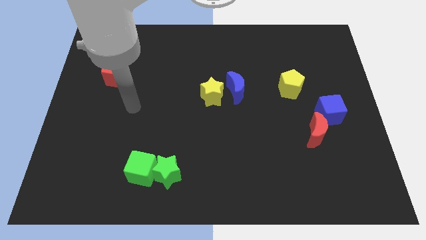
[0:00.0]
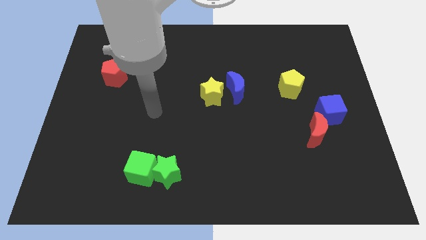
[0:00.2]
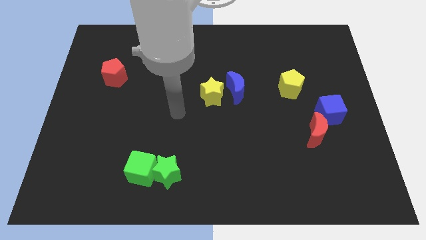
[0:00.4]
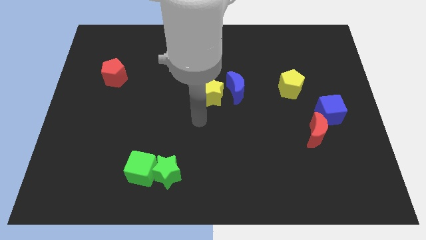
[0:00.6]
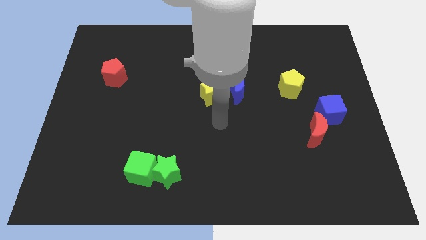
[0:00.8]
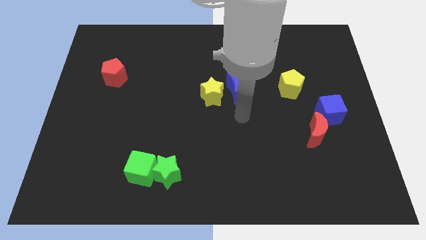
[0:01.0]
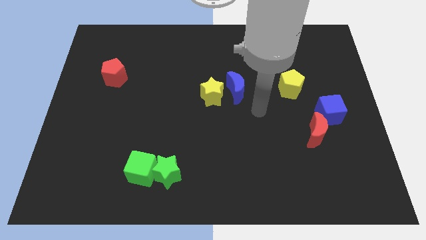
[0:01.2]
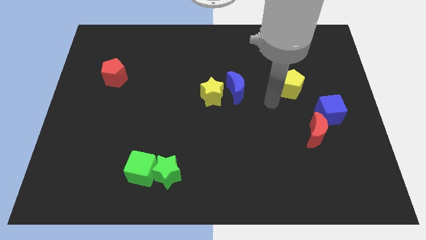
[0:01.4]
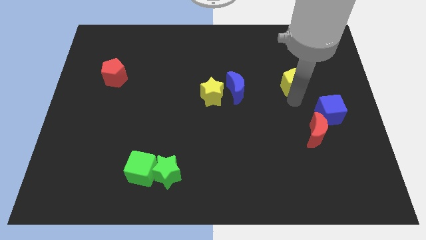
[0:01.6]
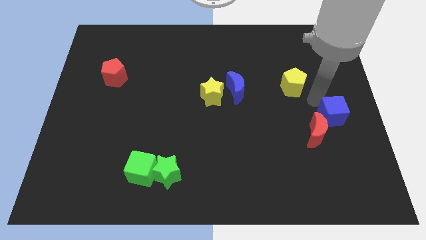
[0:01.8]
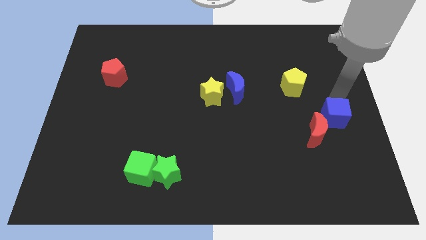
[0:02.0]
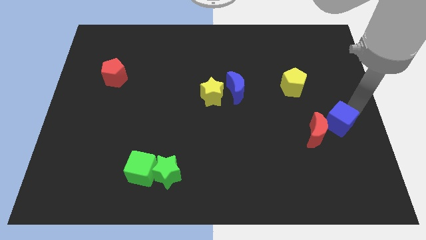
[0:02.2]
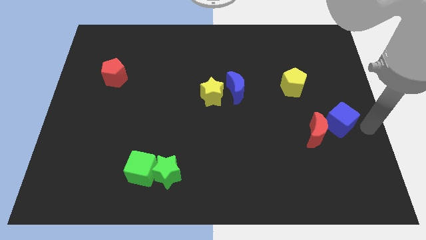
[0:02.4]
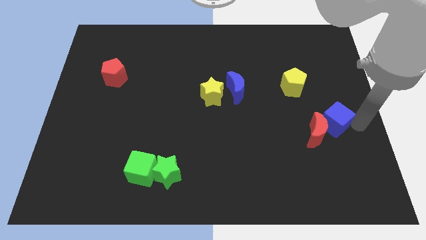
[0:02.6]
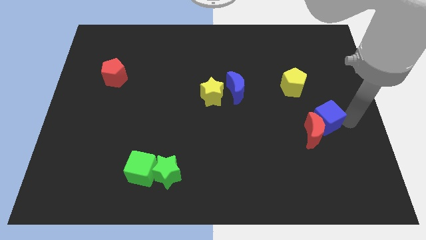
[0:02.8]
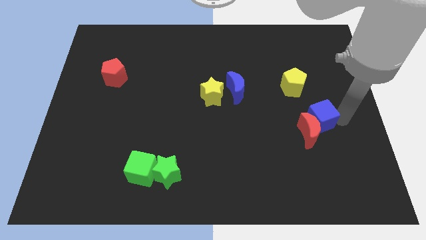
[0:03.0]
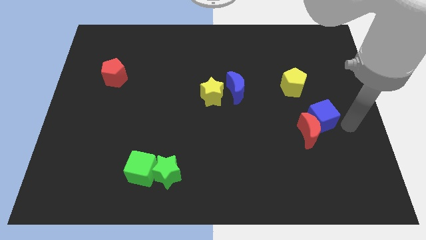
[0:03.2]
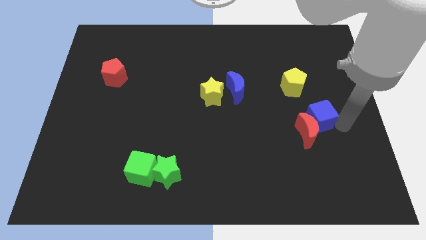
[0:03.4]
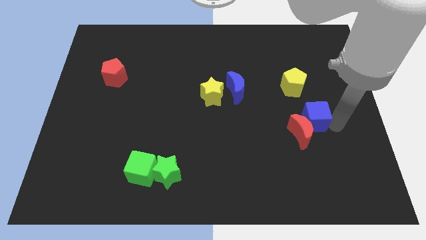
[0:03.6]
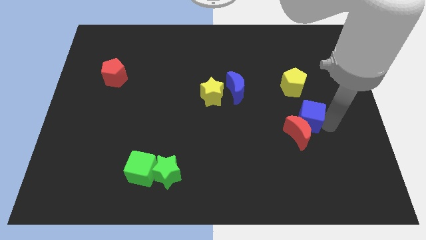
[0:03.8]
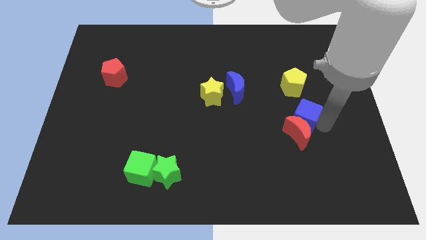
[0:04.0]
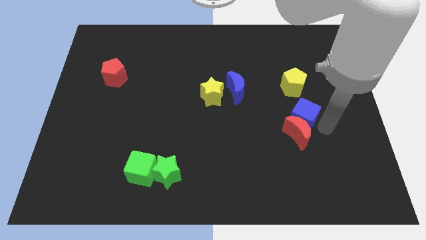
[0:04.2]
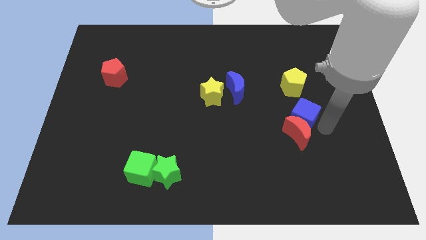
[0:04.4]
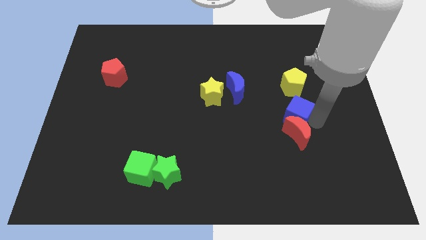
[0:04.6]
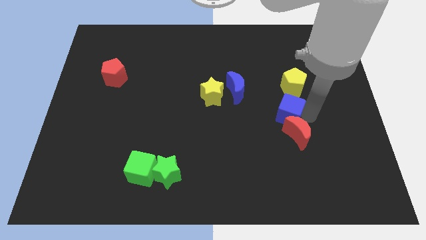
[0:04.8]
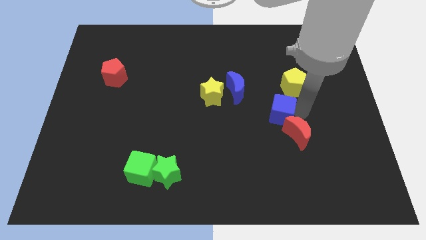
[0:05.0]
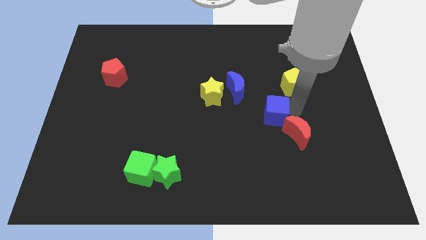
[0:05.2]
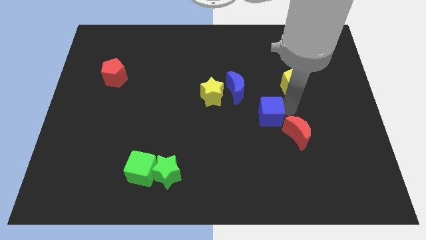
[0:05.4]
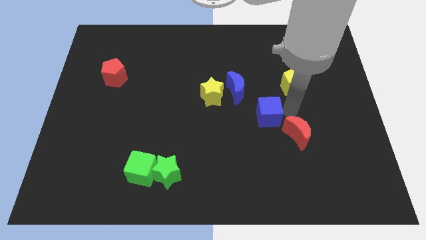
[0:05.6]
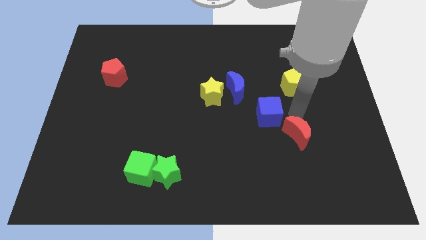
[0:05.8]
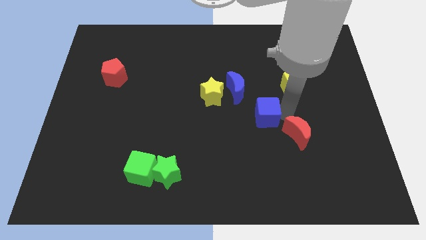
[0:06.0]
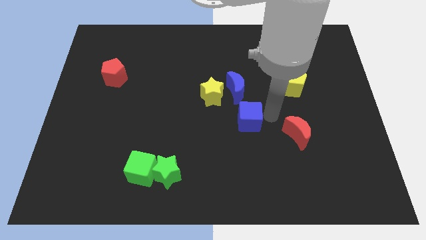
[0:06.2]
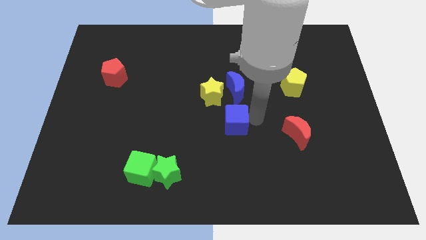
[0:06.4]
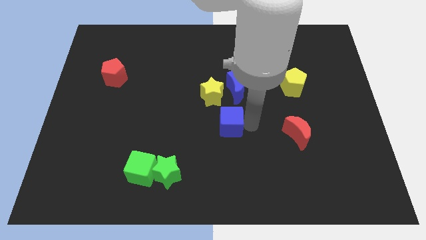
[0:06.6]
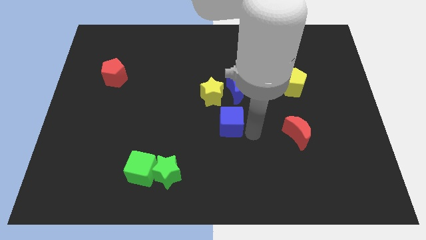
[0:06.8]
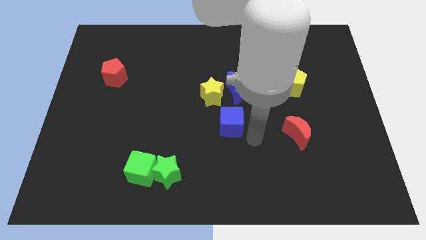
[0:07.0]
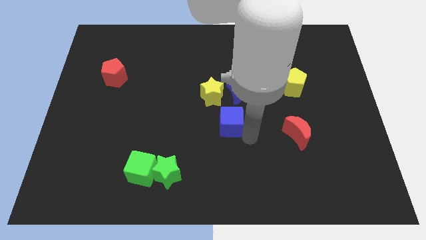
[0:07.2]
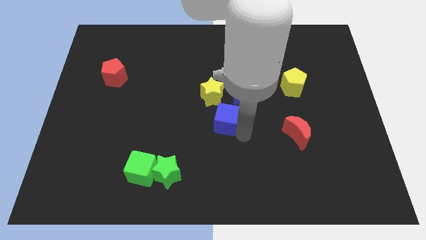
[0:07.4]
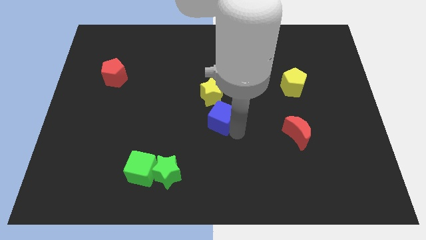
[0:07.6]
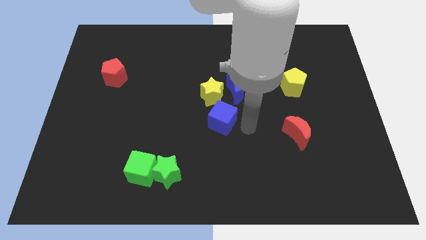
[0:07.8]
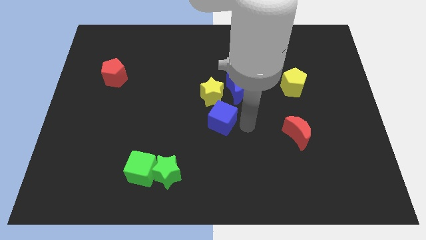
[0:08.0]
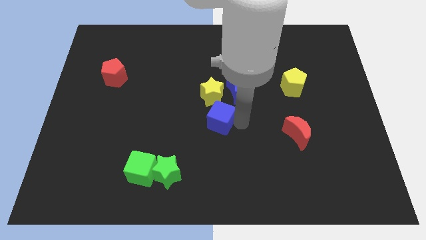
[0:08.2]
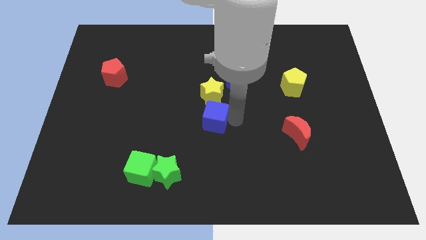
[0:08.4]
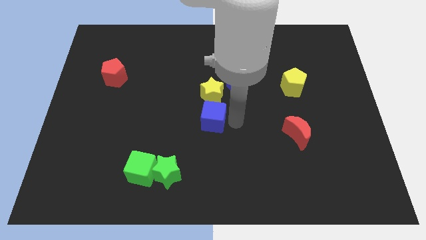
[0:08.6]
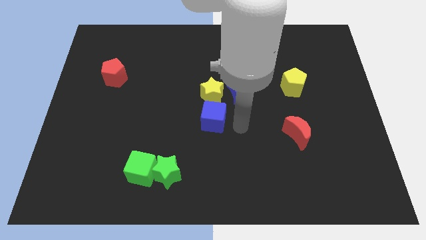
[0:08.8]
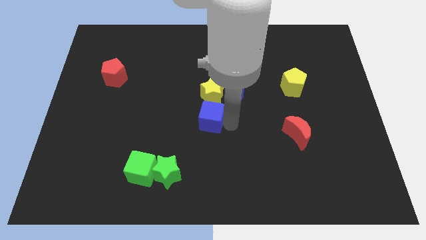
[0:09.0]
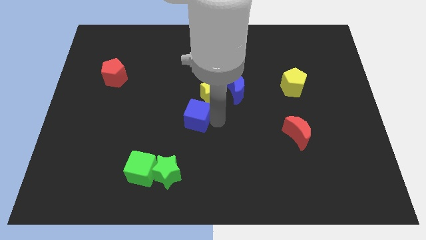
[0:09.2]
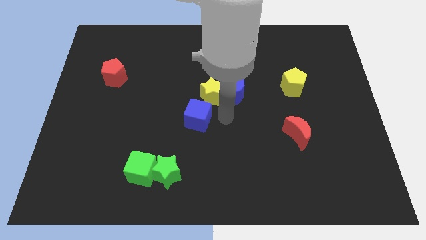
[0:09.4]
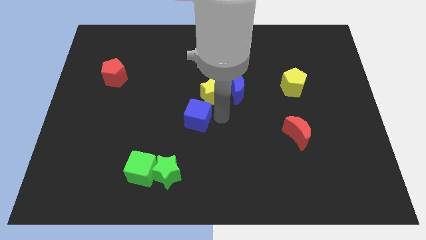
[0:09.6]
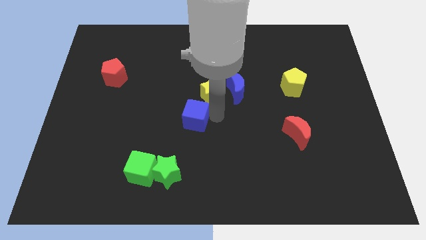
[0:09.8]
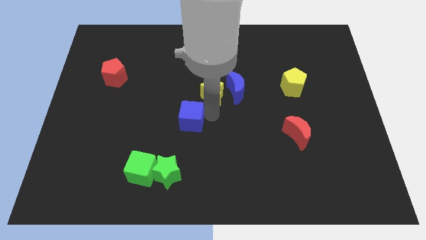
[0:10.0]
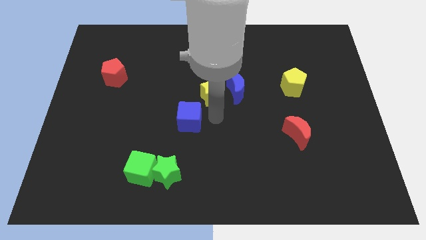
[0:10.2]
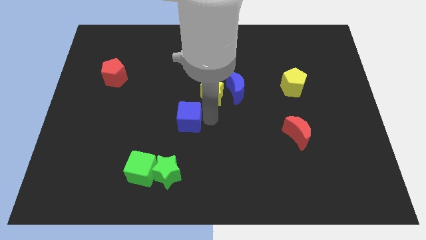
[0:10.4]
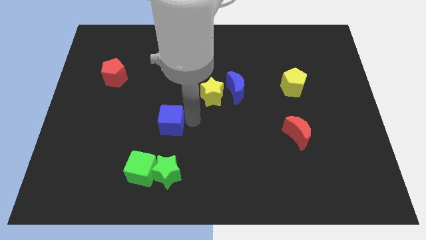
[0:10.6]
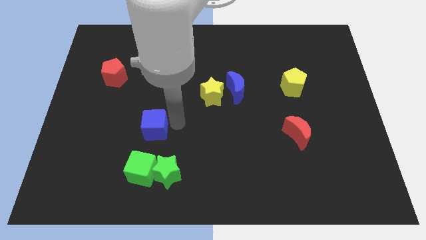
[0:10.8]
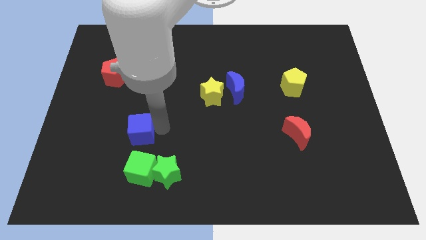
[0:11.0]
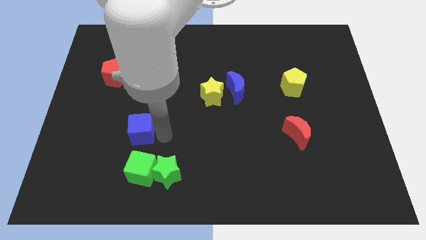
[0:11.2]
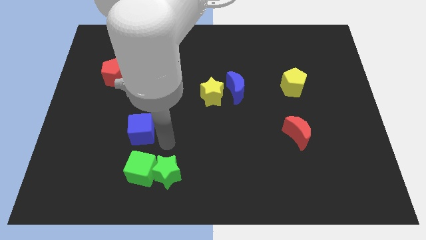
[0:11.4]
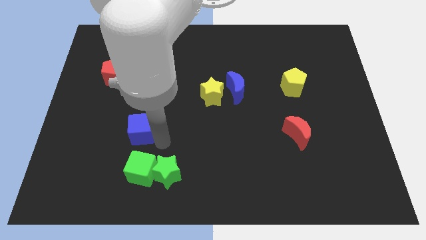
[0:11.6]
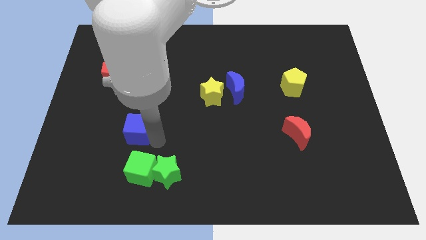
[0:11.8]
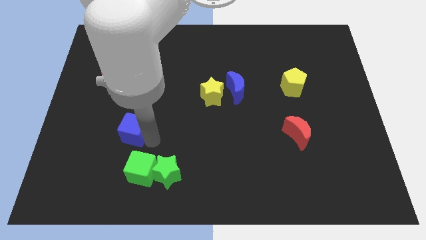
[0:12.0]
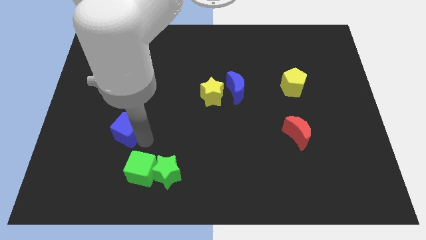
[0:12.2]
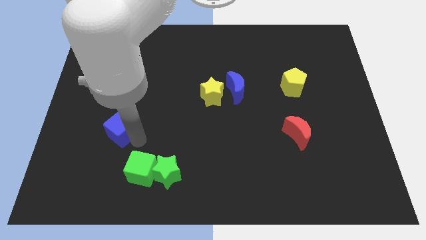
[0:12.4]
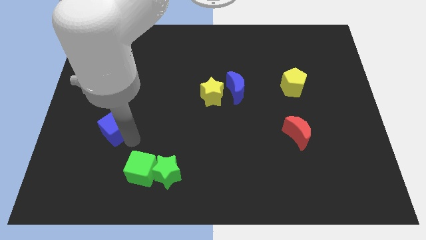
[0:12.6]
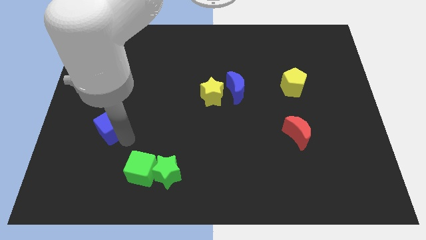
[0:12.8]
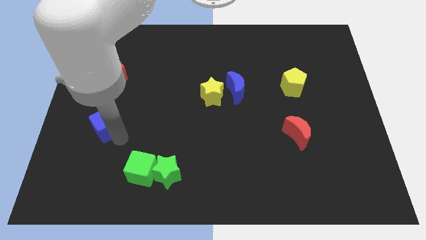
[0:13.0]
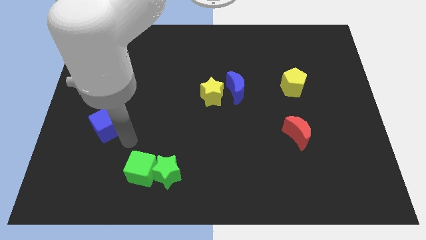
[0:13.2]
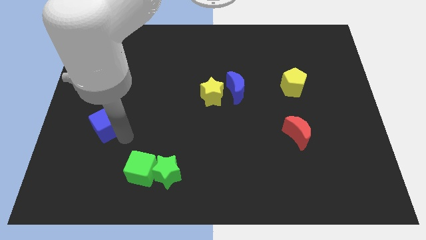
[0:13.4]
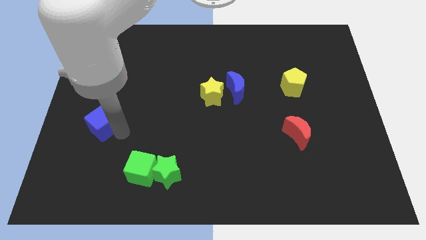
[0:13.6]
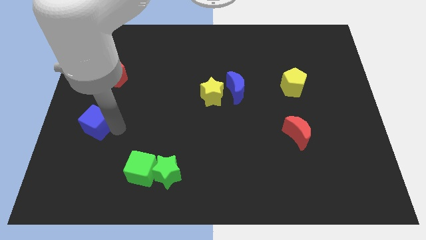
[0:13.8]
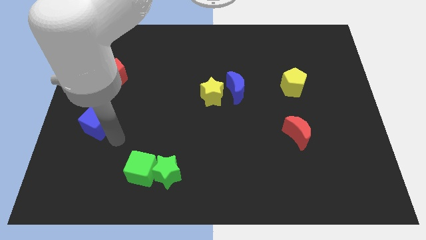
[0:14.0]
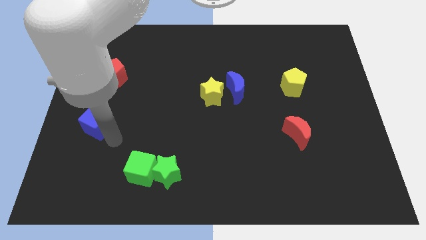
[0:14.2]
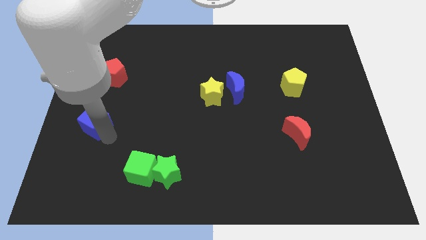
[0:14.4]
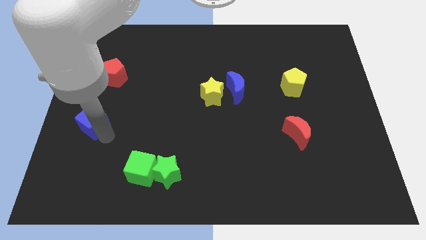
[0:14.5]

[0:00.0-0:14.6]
move the blue cube to the center left
